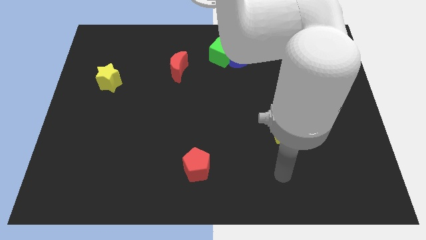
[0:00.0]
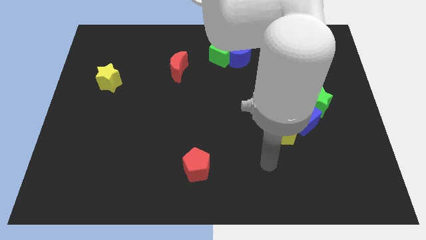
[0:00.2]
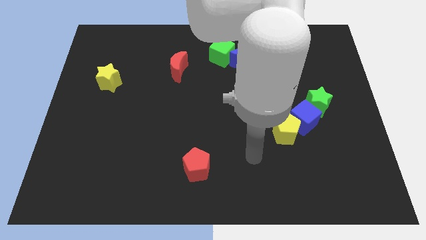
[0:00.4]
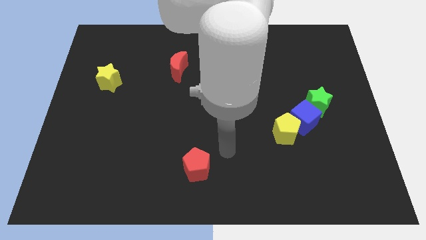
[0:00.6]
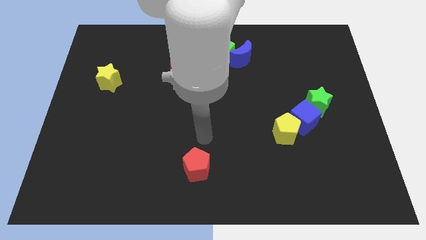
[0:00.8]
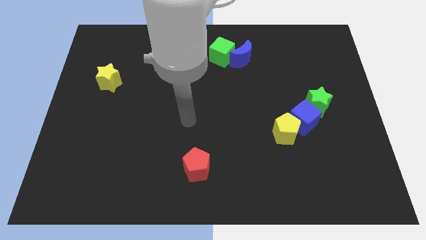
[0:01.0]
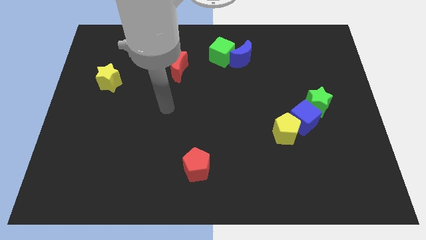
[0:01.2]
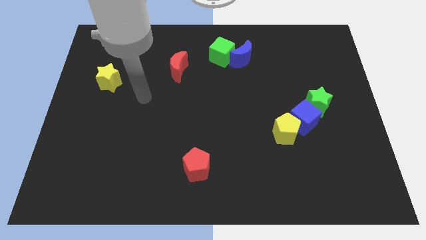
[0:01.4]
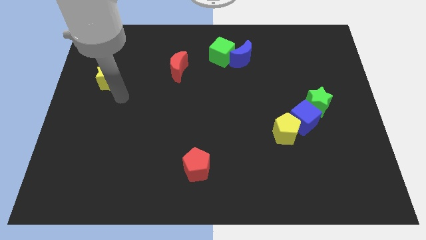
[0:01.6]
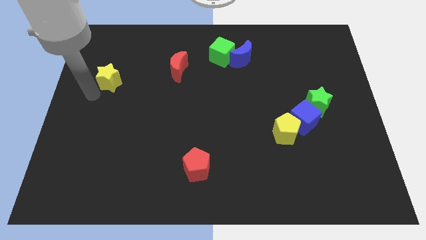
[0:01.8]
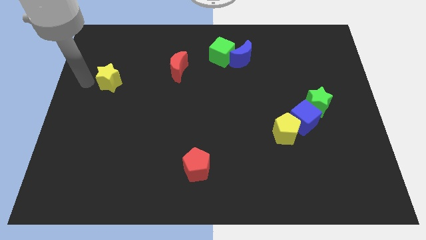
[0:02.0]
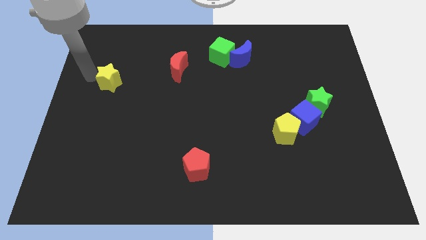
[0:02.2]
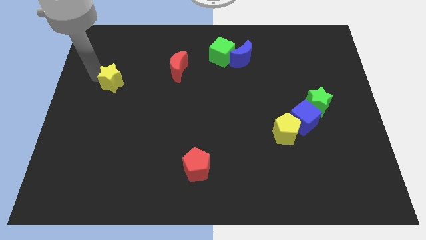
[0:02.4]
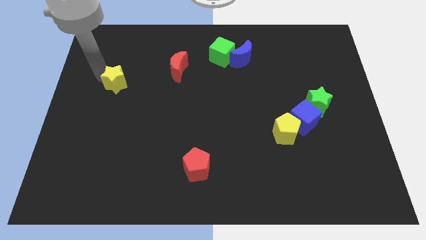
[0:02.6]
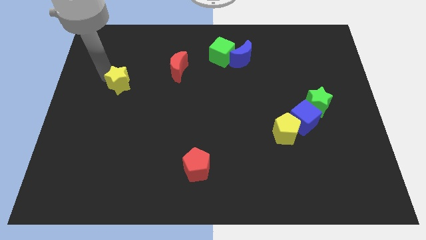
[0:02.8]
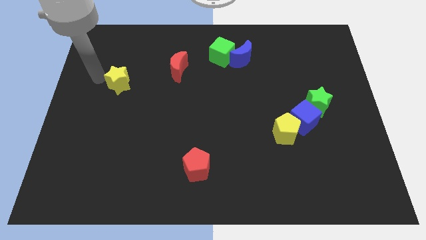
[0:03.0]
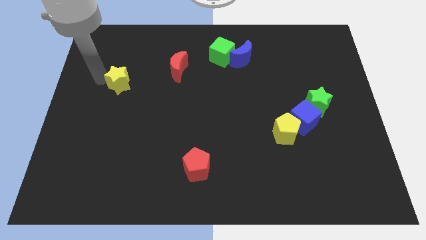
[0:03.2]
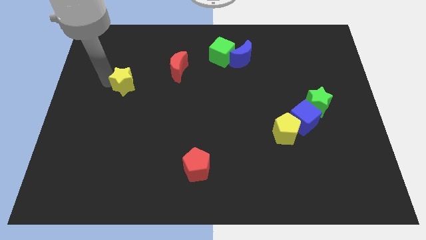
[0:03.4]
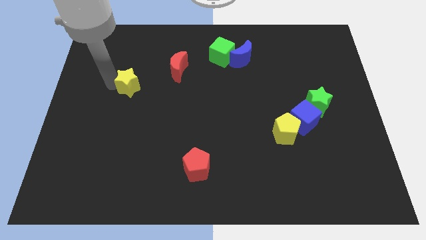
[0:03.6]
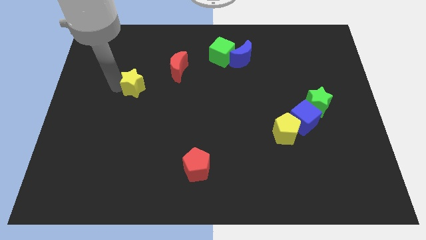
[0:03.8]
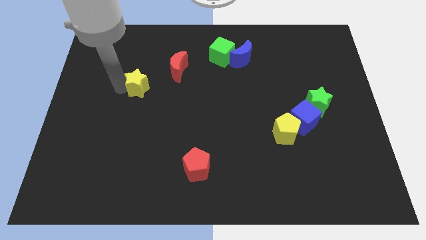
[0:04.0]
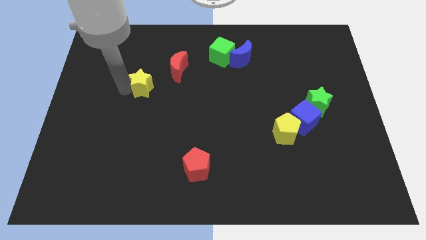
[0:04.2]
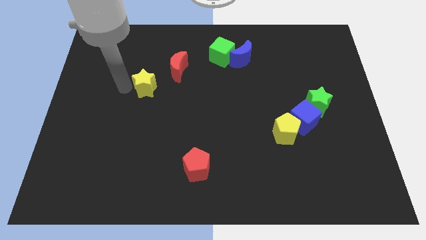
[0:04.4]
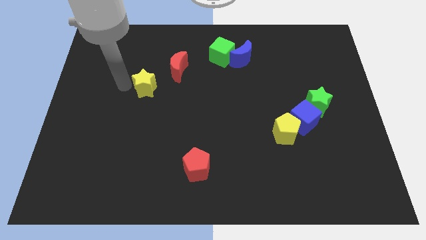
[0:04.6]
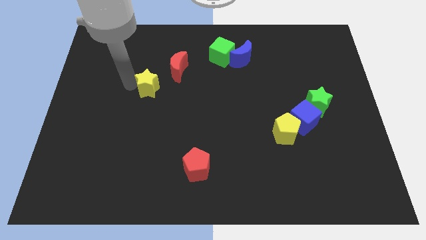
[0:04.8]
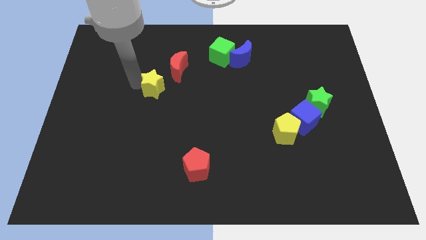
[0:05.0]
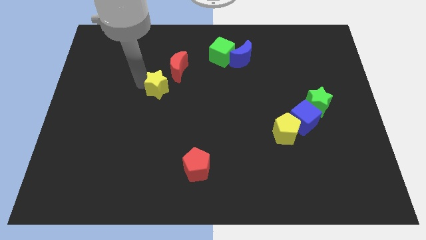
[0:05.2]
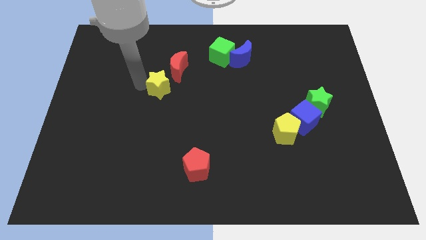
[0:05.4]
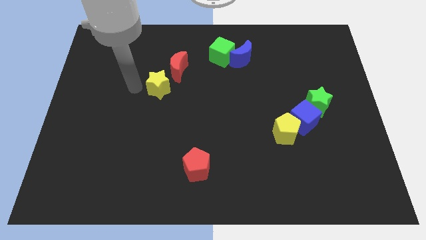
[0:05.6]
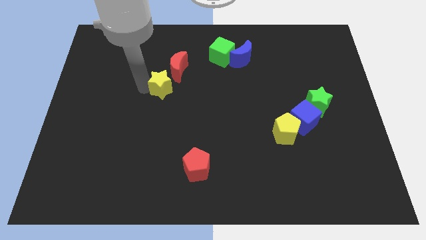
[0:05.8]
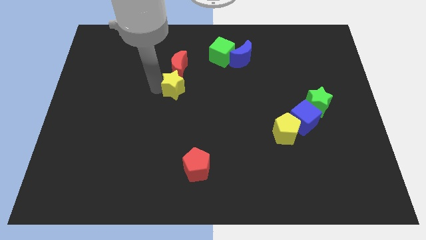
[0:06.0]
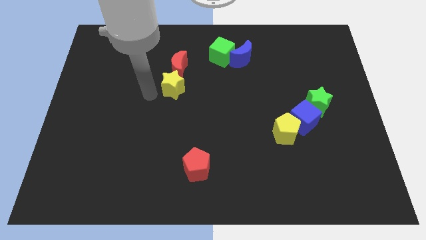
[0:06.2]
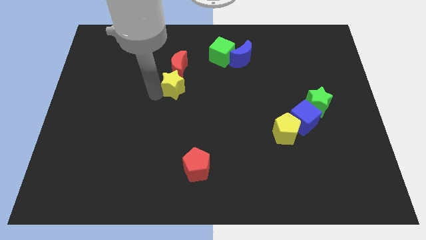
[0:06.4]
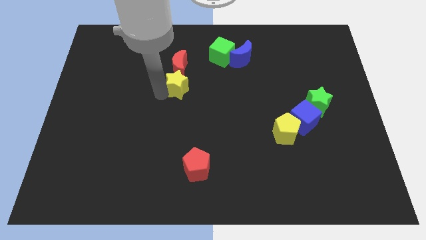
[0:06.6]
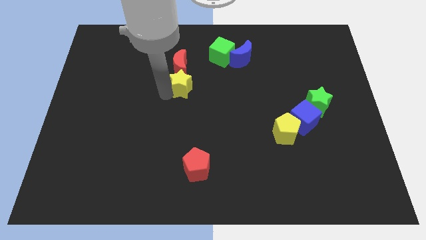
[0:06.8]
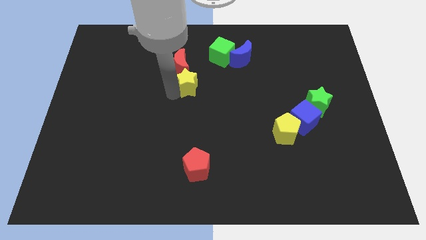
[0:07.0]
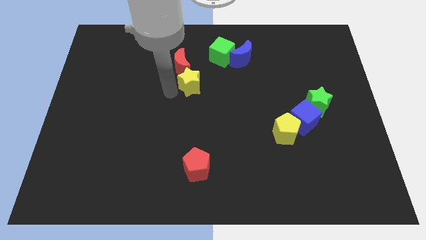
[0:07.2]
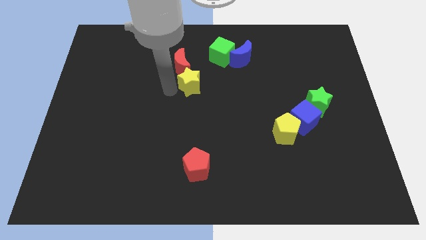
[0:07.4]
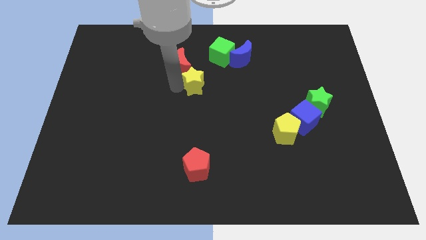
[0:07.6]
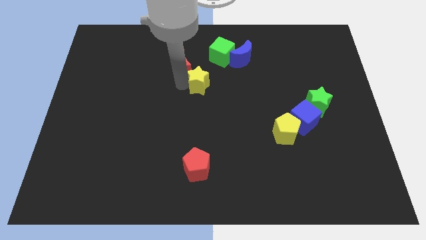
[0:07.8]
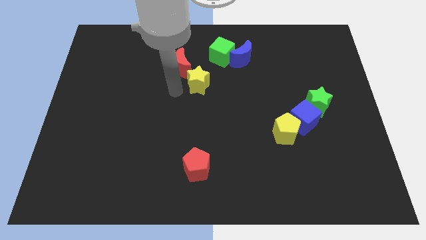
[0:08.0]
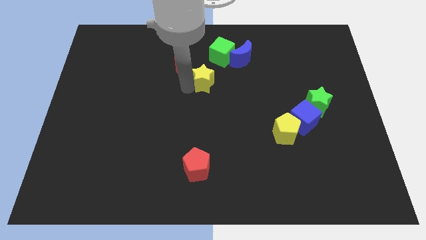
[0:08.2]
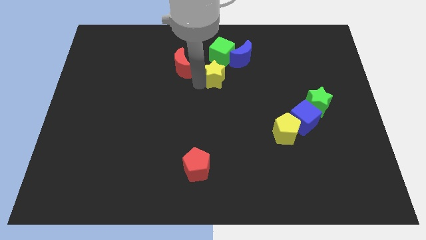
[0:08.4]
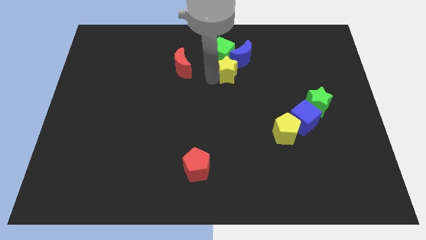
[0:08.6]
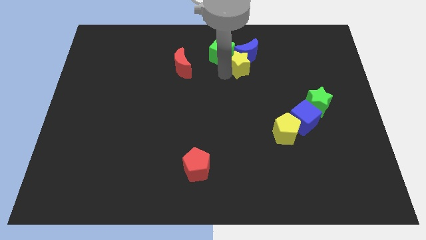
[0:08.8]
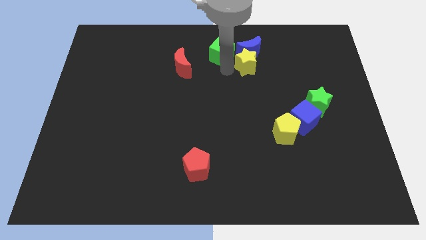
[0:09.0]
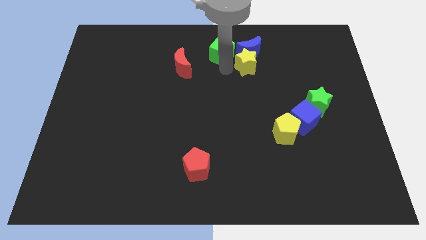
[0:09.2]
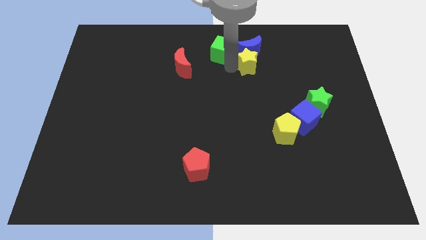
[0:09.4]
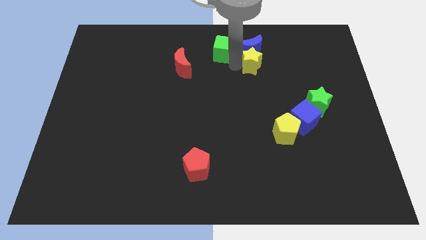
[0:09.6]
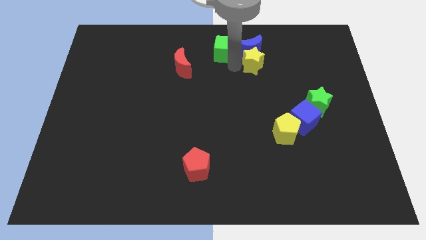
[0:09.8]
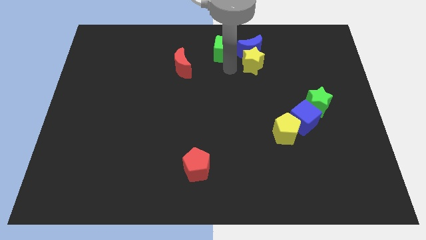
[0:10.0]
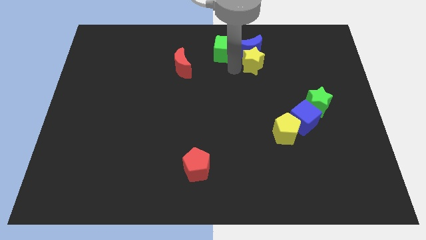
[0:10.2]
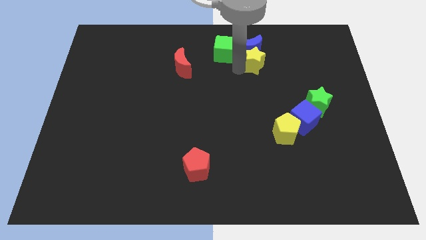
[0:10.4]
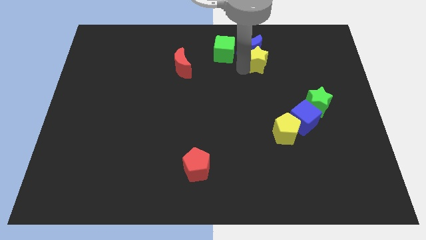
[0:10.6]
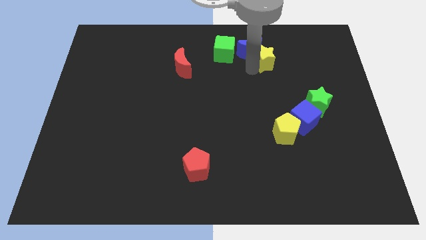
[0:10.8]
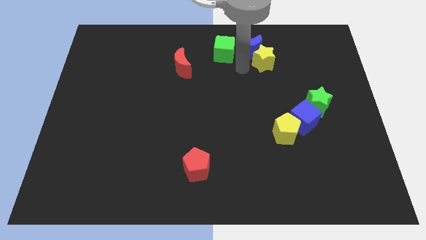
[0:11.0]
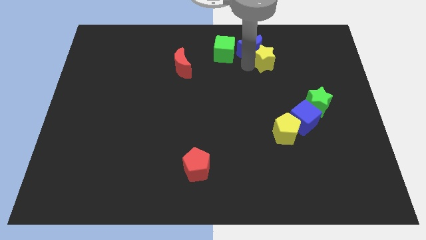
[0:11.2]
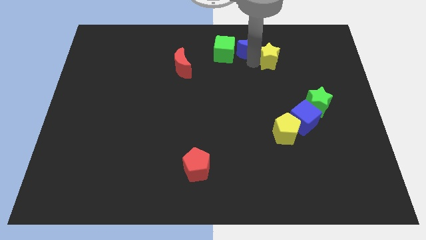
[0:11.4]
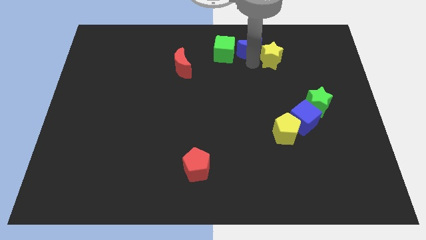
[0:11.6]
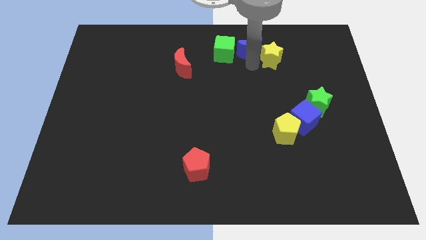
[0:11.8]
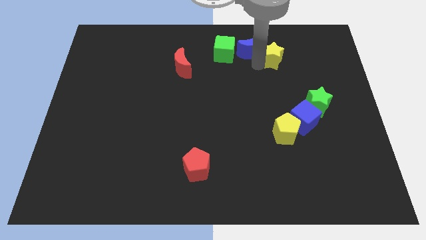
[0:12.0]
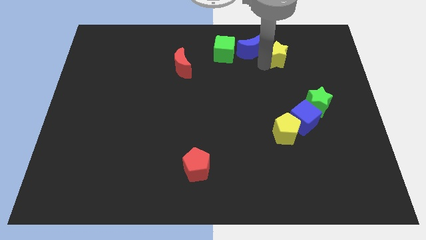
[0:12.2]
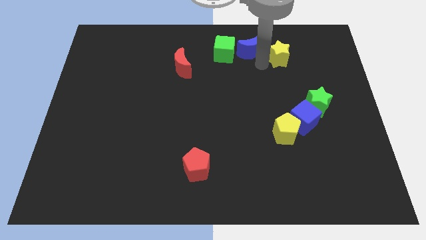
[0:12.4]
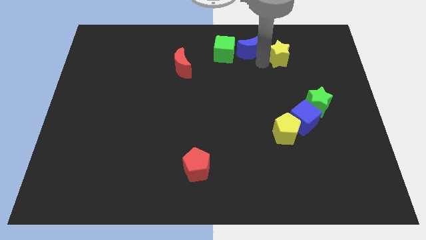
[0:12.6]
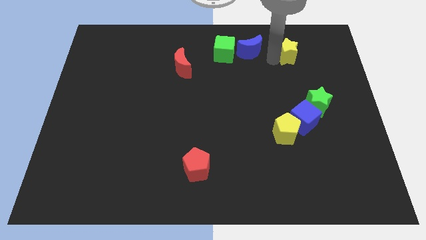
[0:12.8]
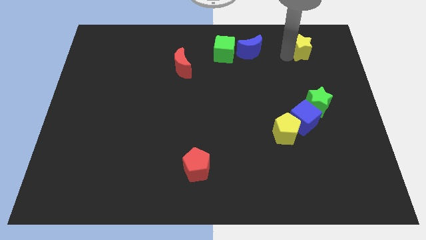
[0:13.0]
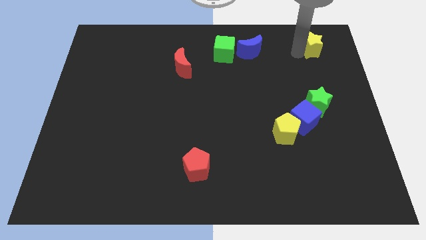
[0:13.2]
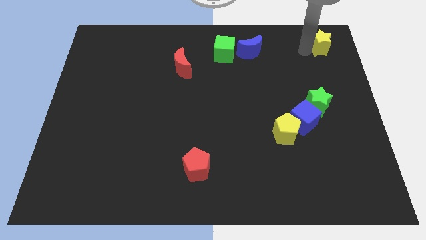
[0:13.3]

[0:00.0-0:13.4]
push the yellow star to the top right of the board
